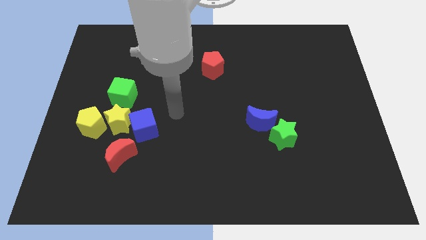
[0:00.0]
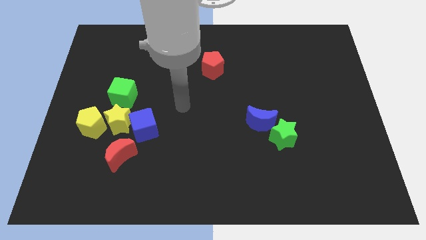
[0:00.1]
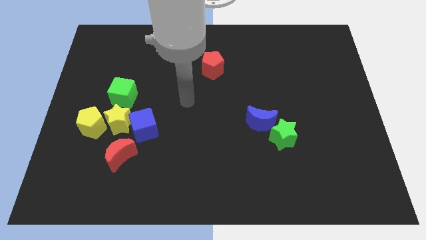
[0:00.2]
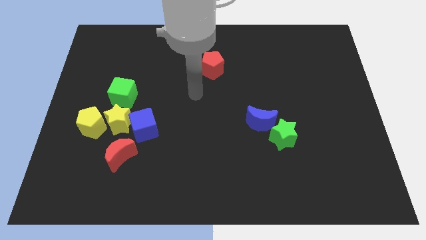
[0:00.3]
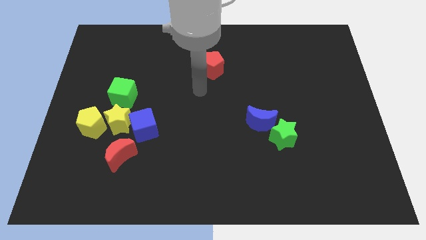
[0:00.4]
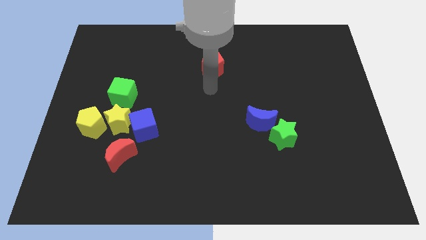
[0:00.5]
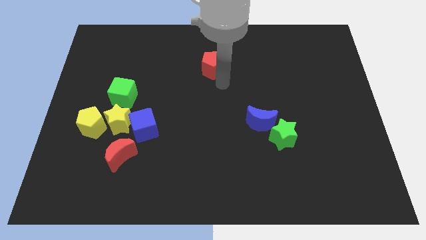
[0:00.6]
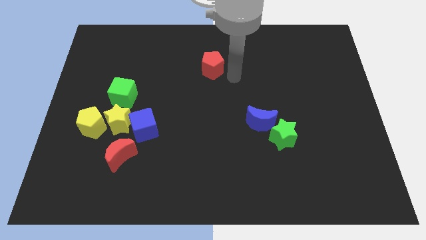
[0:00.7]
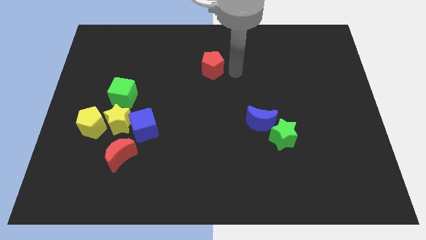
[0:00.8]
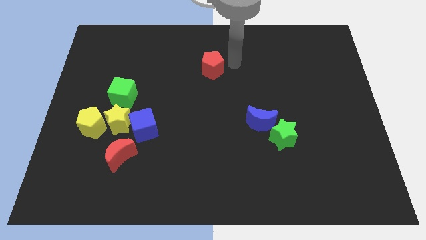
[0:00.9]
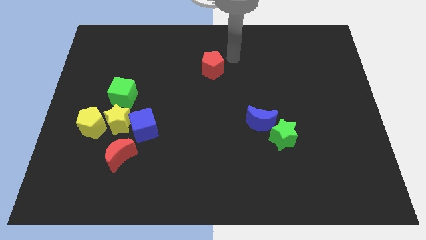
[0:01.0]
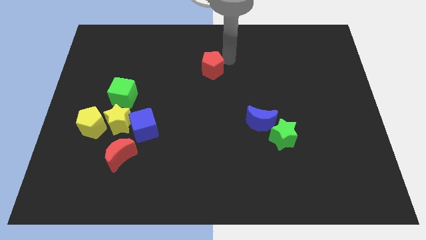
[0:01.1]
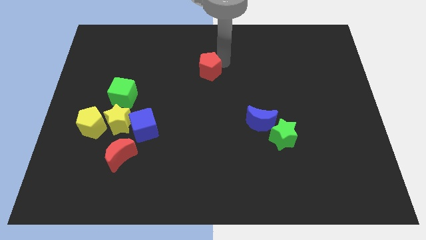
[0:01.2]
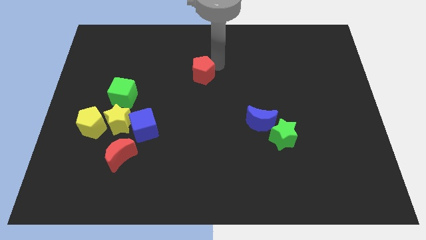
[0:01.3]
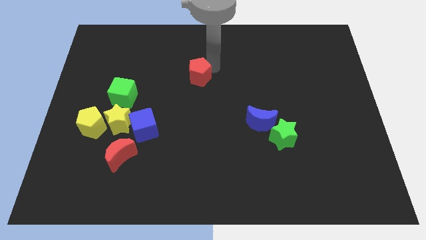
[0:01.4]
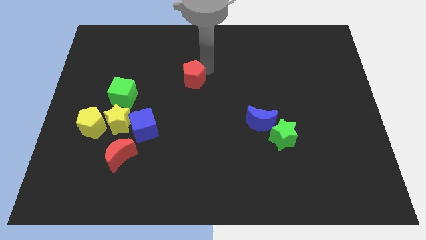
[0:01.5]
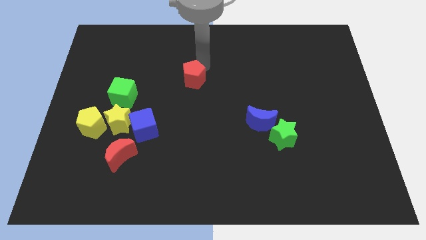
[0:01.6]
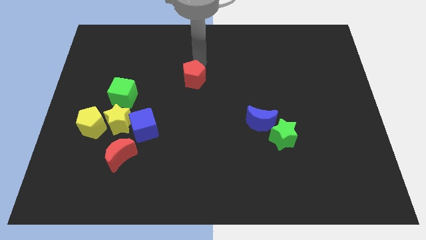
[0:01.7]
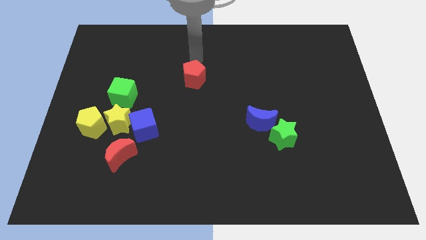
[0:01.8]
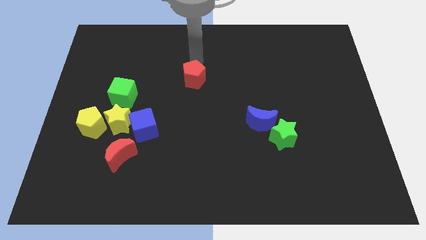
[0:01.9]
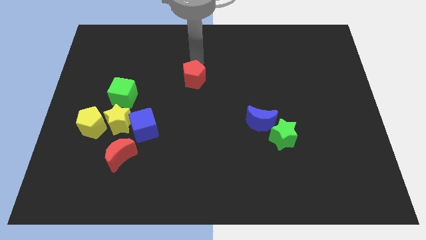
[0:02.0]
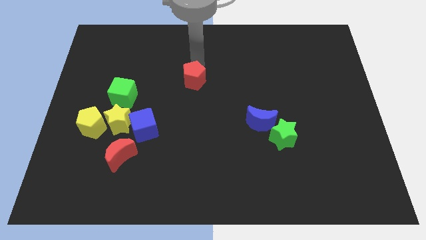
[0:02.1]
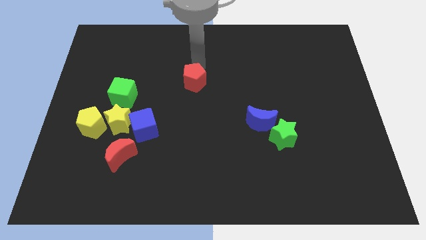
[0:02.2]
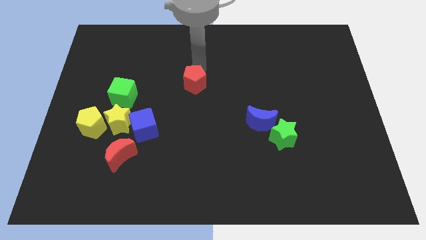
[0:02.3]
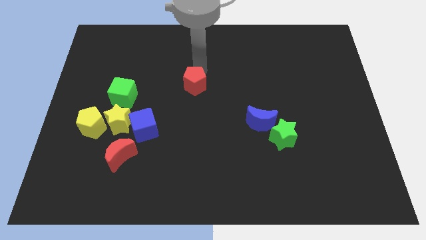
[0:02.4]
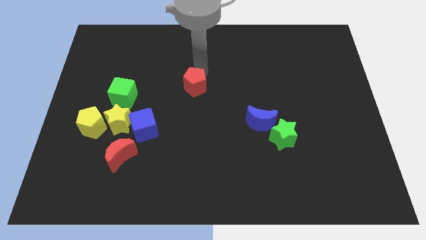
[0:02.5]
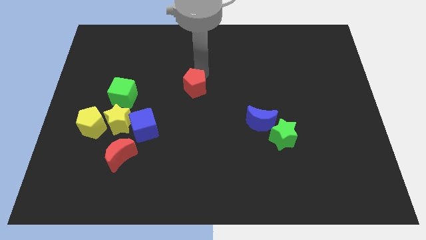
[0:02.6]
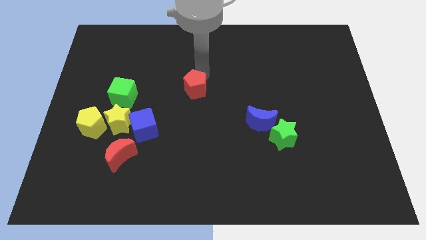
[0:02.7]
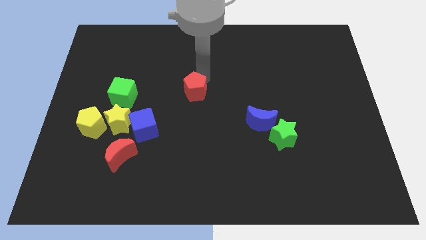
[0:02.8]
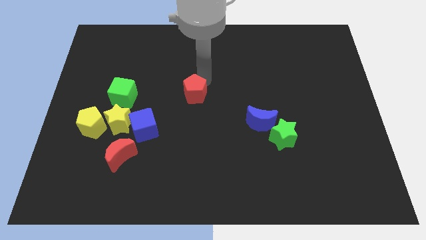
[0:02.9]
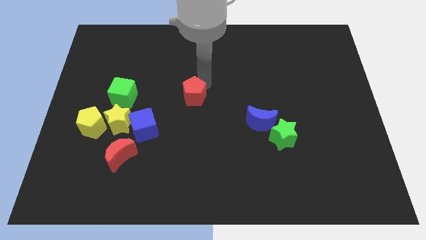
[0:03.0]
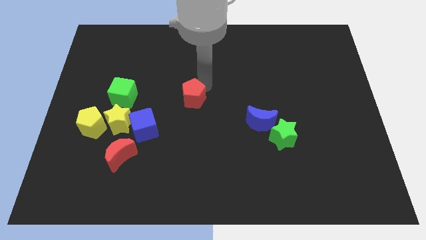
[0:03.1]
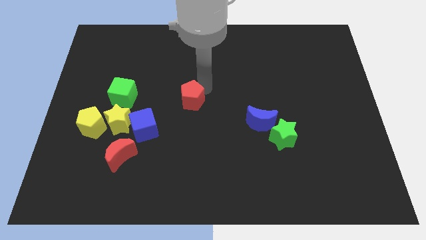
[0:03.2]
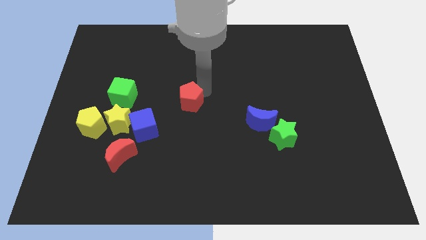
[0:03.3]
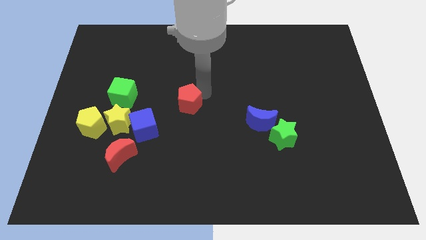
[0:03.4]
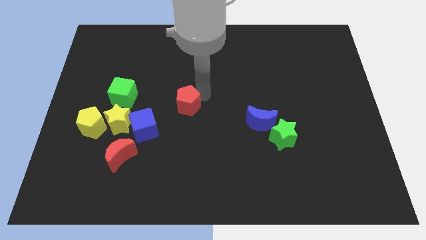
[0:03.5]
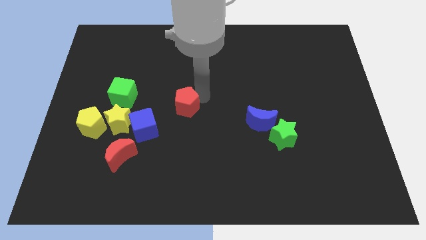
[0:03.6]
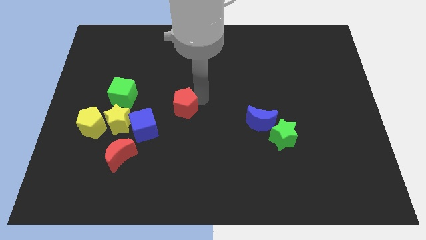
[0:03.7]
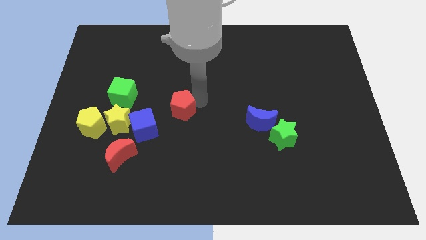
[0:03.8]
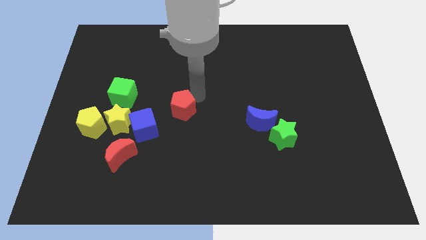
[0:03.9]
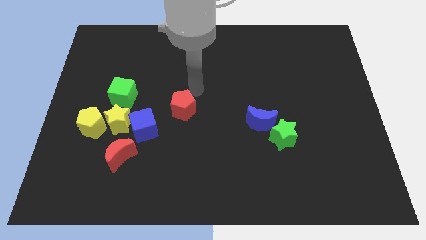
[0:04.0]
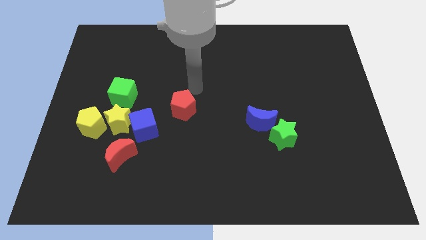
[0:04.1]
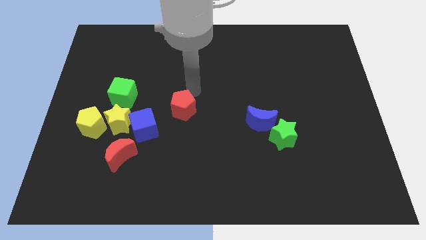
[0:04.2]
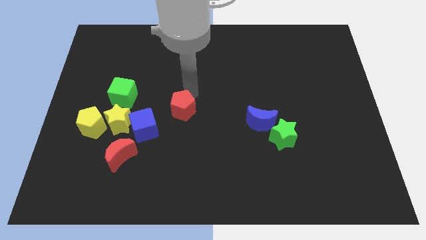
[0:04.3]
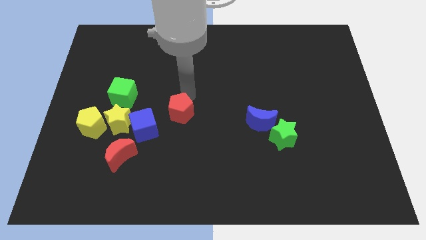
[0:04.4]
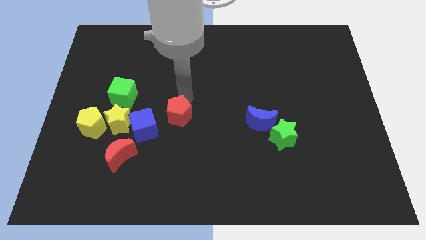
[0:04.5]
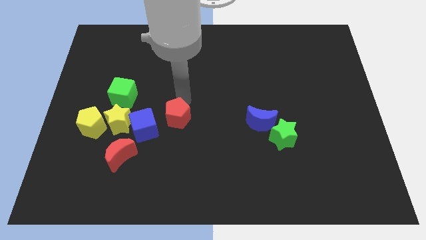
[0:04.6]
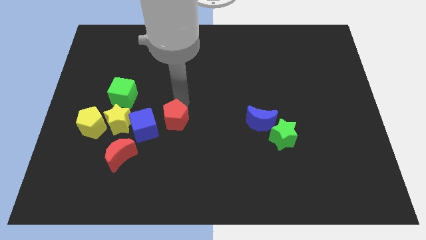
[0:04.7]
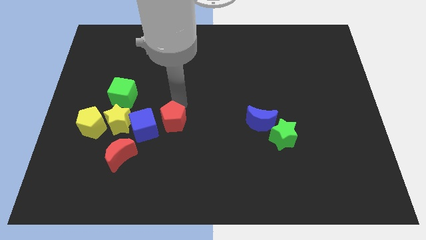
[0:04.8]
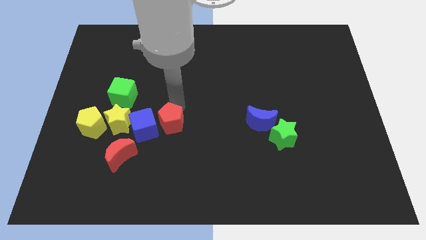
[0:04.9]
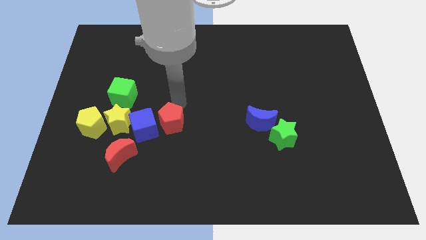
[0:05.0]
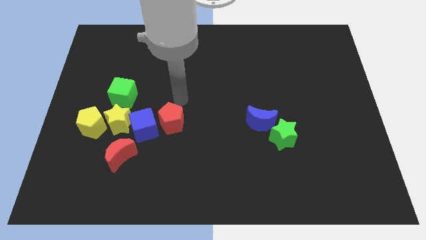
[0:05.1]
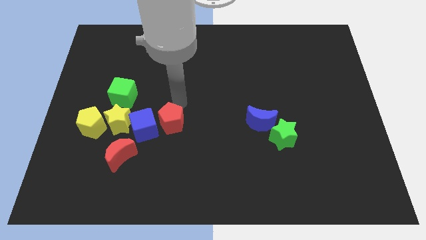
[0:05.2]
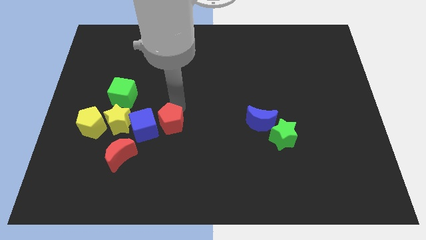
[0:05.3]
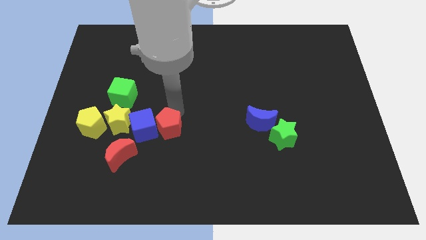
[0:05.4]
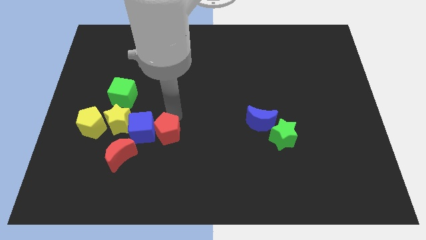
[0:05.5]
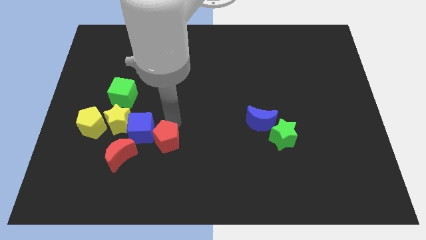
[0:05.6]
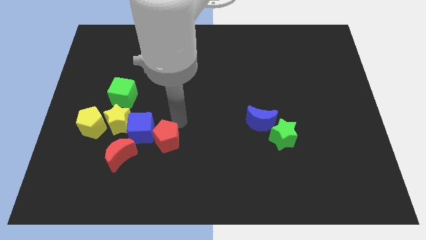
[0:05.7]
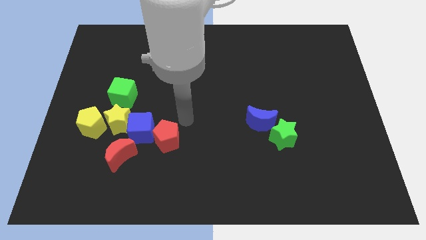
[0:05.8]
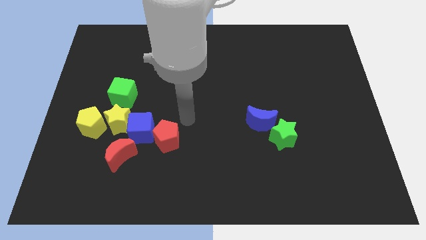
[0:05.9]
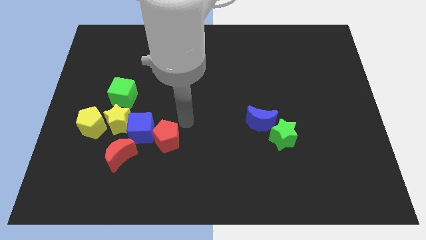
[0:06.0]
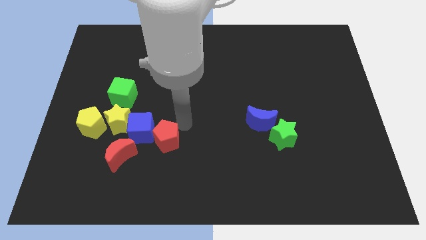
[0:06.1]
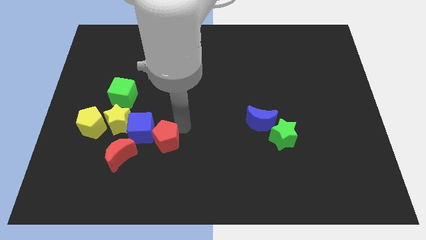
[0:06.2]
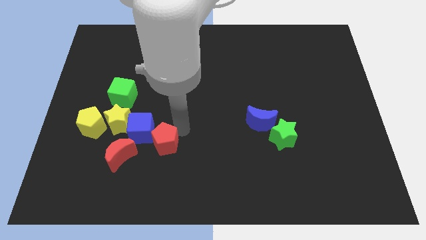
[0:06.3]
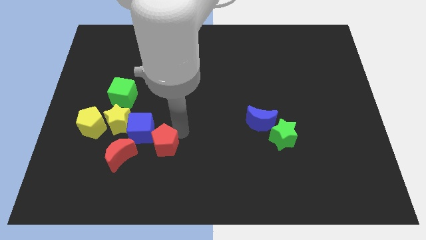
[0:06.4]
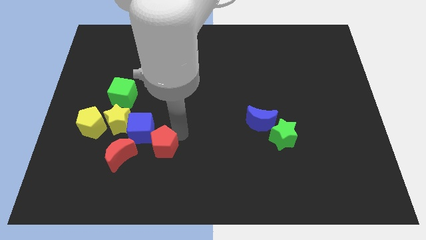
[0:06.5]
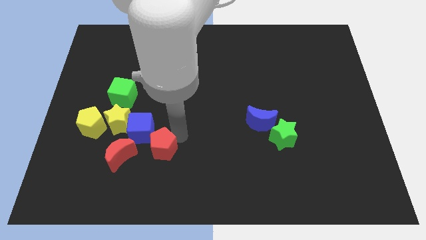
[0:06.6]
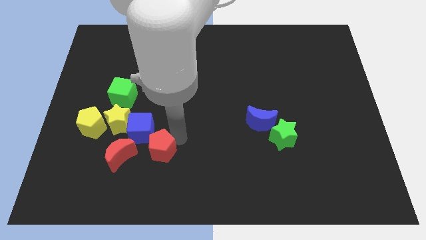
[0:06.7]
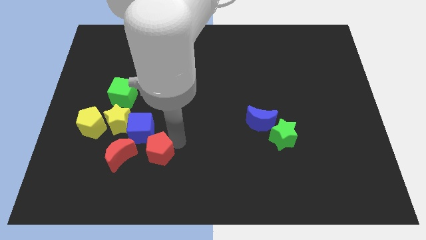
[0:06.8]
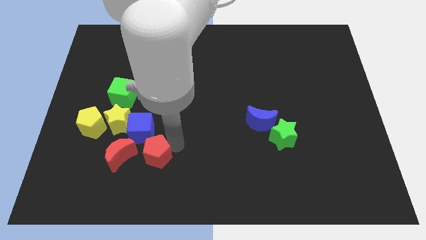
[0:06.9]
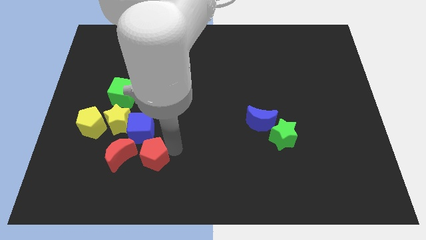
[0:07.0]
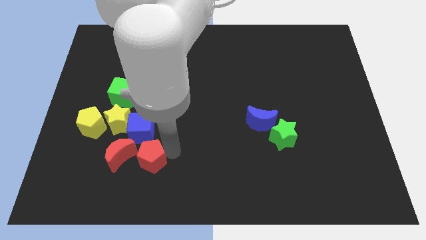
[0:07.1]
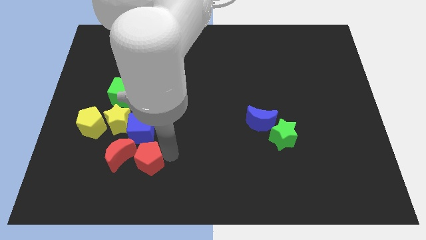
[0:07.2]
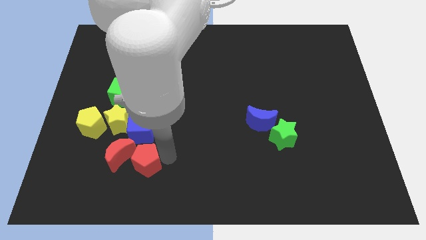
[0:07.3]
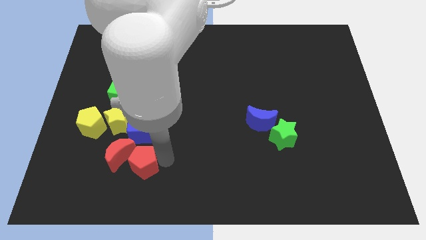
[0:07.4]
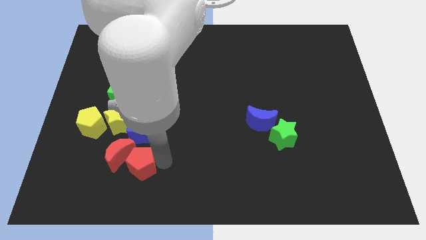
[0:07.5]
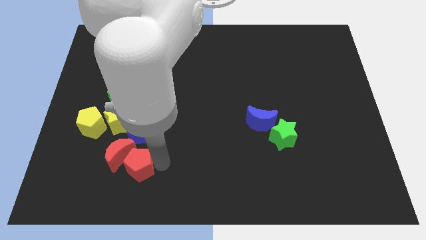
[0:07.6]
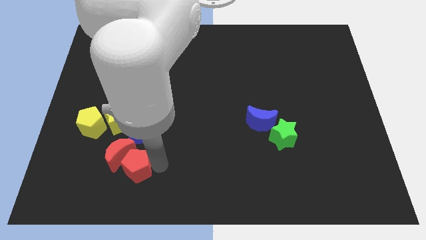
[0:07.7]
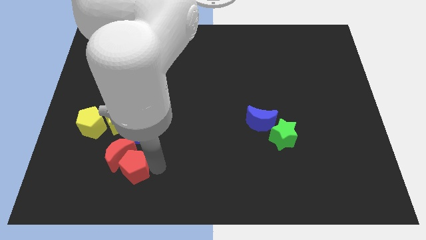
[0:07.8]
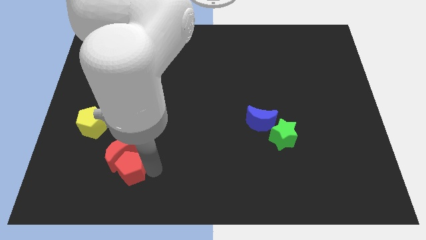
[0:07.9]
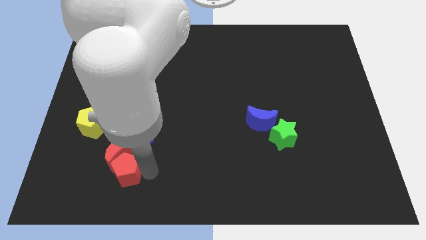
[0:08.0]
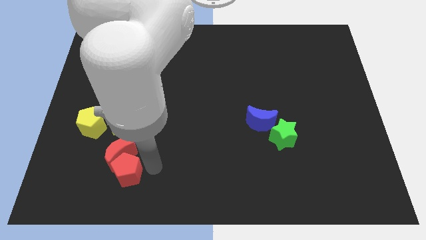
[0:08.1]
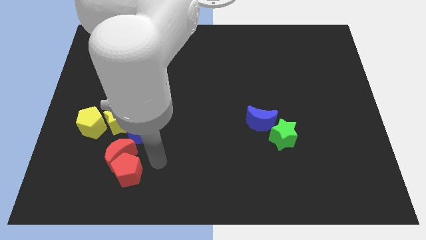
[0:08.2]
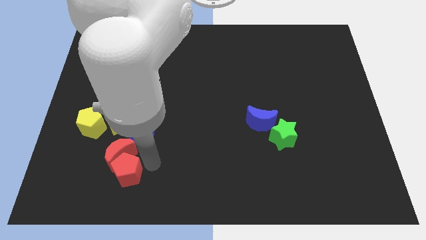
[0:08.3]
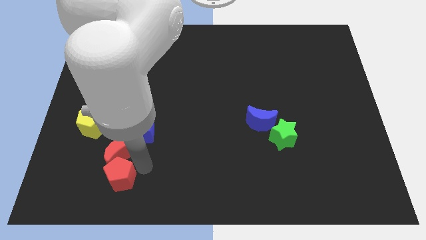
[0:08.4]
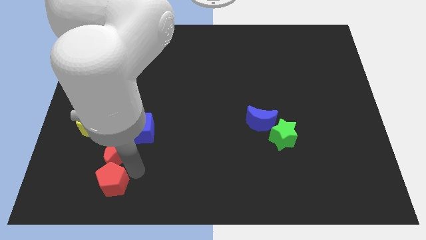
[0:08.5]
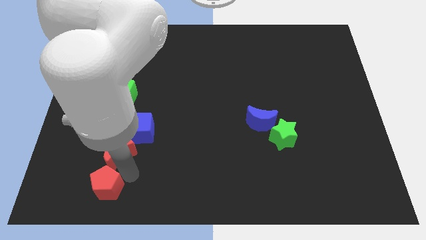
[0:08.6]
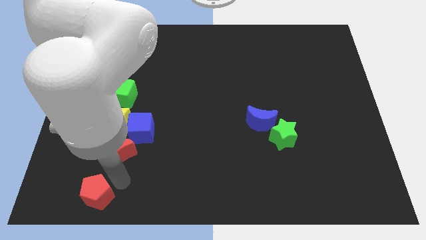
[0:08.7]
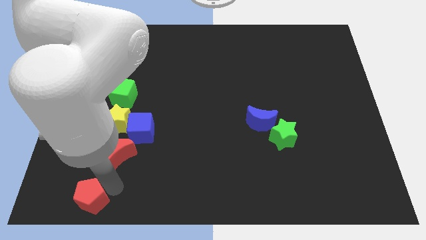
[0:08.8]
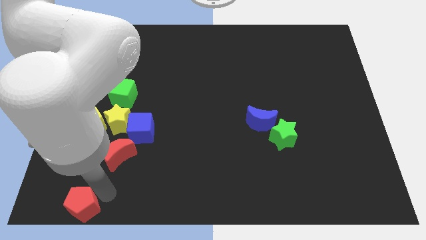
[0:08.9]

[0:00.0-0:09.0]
move the red pentagon to the bottom left
